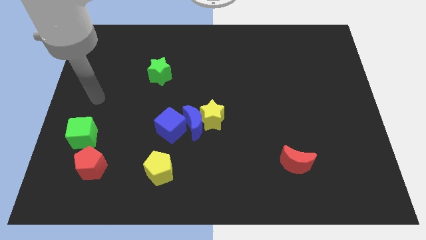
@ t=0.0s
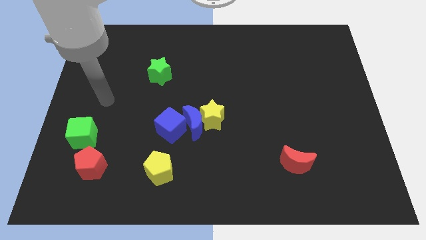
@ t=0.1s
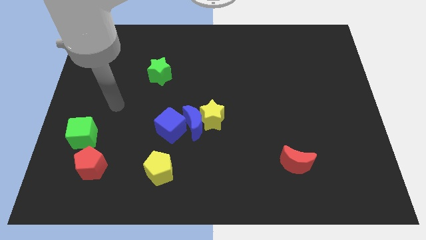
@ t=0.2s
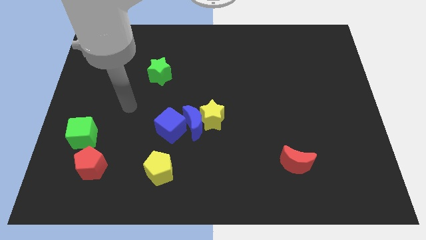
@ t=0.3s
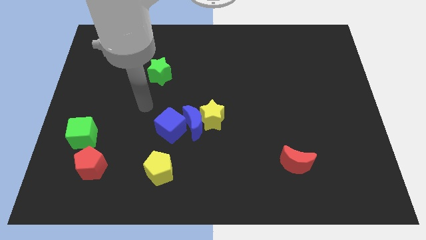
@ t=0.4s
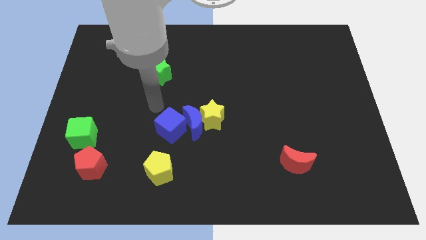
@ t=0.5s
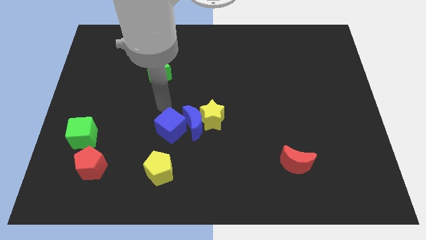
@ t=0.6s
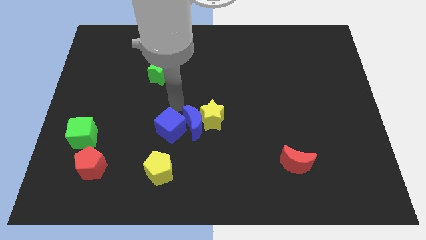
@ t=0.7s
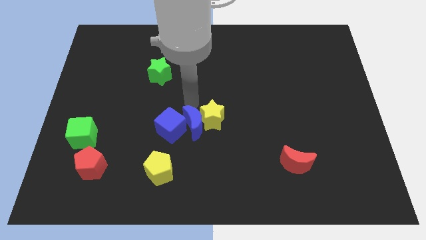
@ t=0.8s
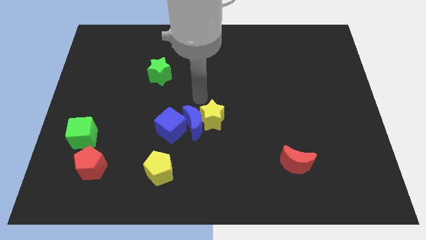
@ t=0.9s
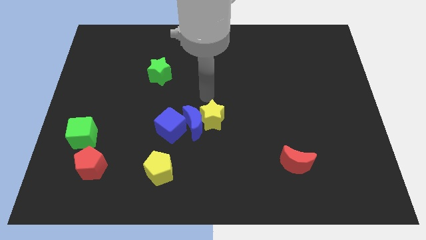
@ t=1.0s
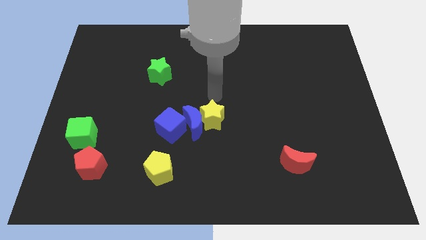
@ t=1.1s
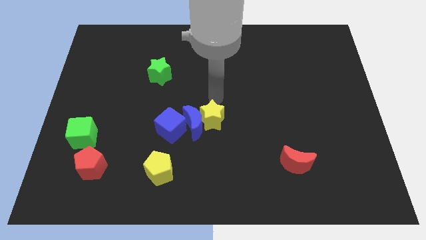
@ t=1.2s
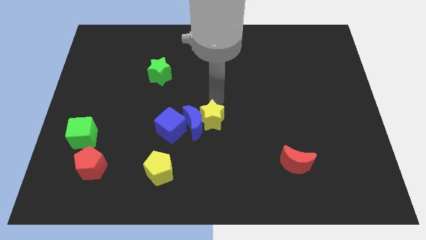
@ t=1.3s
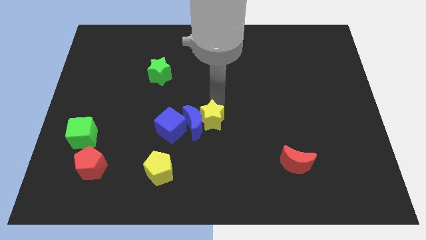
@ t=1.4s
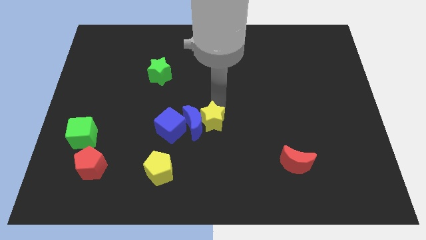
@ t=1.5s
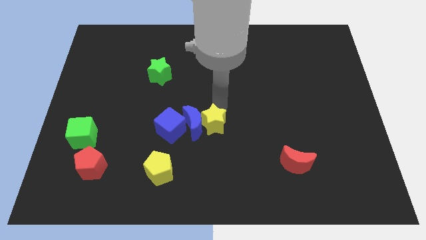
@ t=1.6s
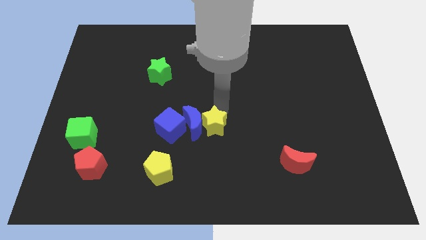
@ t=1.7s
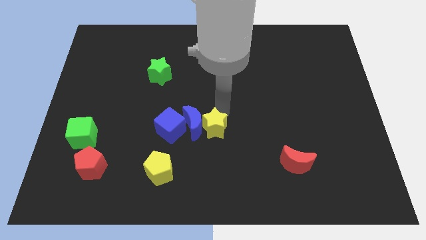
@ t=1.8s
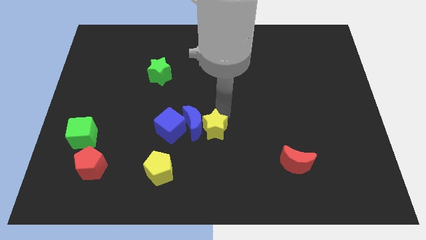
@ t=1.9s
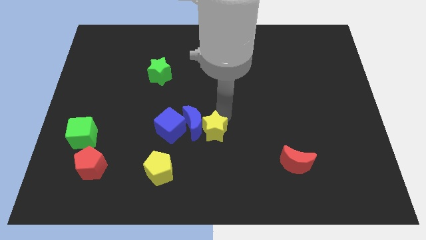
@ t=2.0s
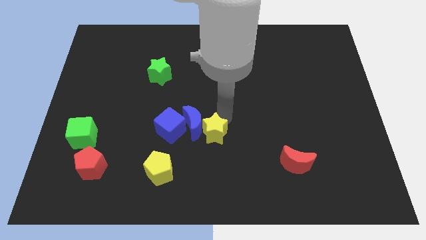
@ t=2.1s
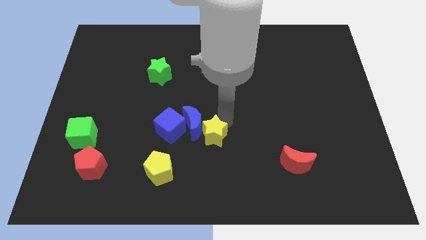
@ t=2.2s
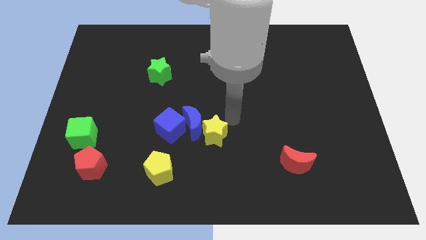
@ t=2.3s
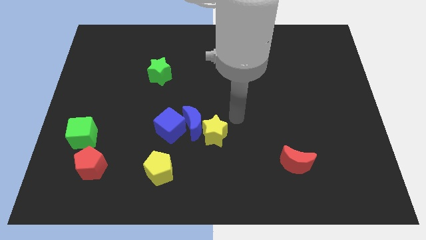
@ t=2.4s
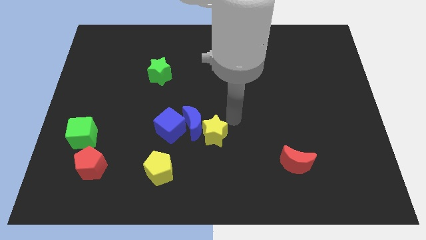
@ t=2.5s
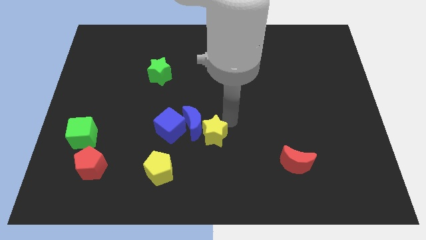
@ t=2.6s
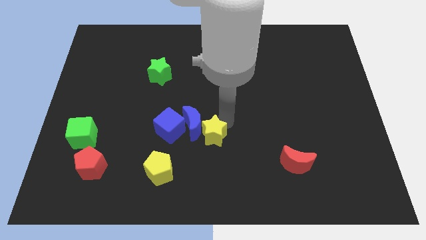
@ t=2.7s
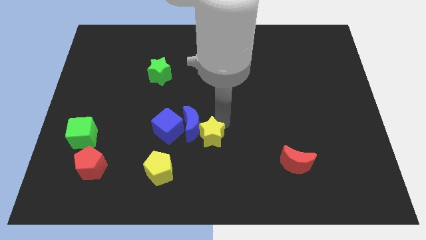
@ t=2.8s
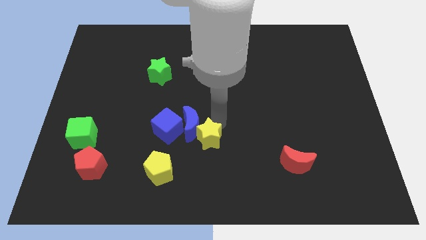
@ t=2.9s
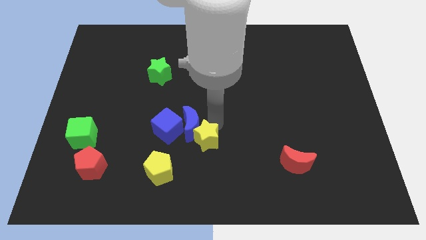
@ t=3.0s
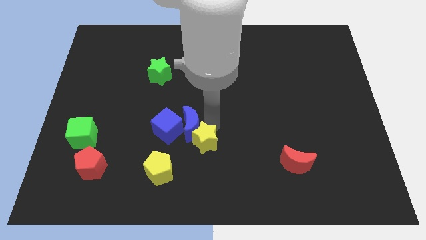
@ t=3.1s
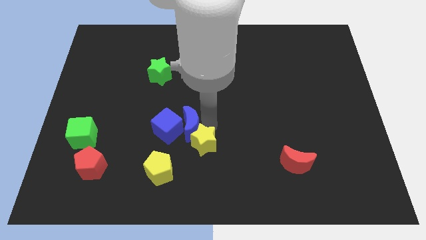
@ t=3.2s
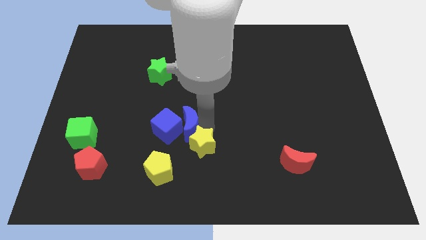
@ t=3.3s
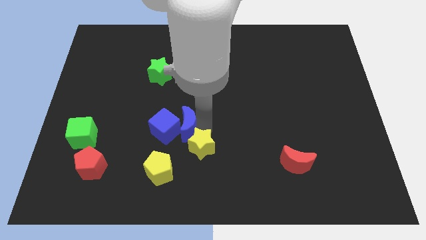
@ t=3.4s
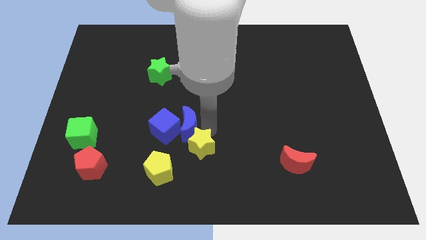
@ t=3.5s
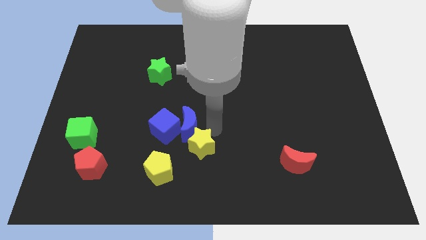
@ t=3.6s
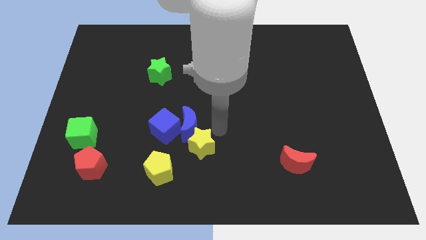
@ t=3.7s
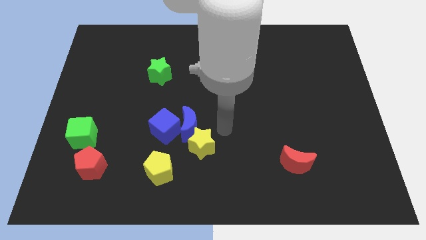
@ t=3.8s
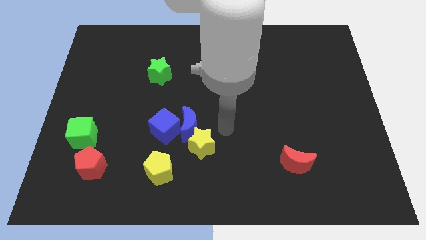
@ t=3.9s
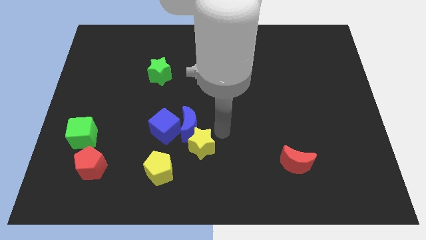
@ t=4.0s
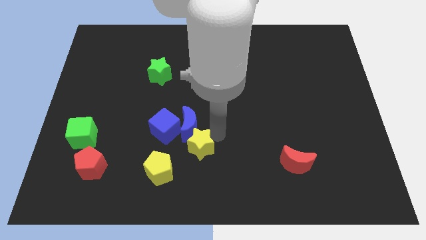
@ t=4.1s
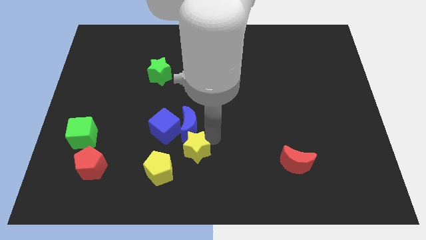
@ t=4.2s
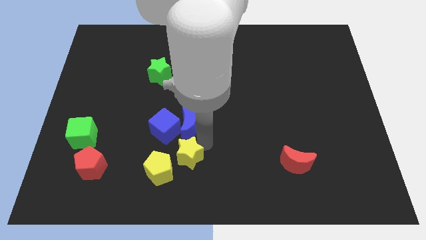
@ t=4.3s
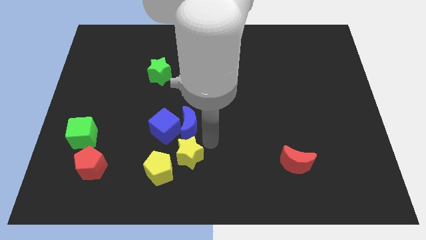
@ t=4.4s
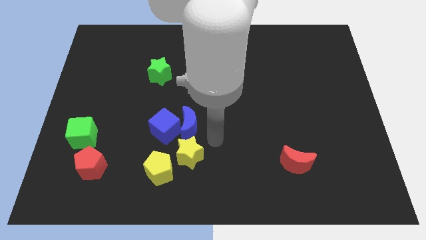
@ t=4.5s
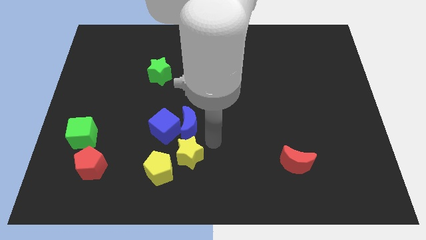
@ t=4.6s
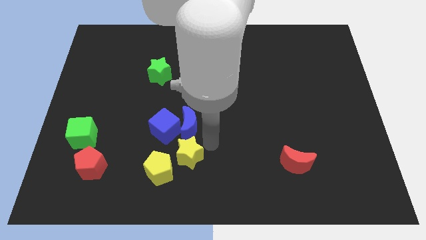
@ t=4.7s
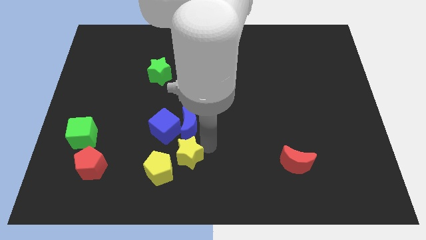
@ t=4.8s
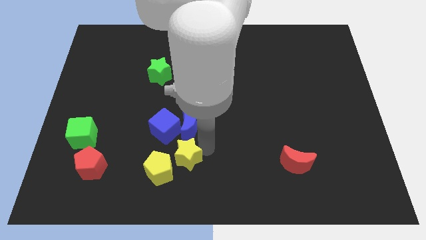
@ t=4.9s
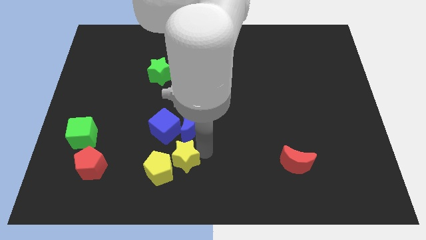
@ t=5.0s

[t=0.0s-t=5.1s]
slide the yellow star close to the yellow pentagon

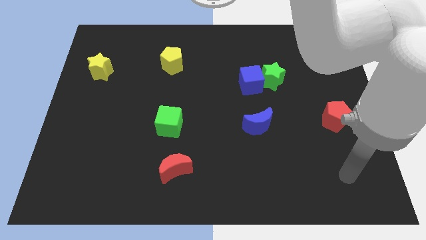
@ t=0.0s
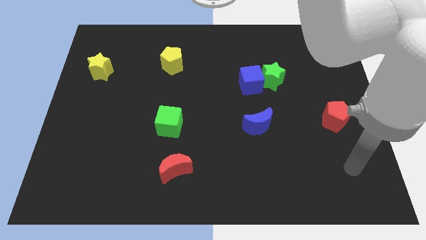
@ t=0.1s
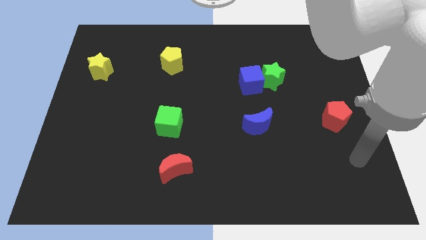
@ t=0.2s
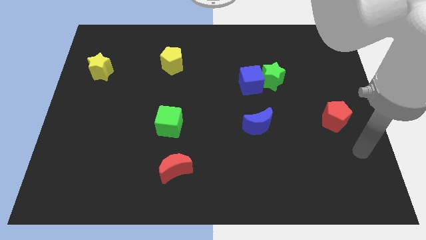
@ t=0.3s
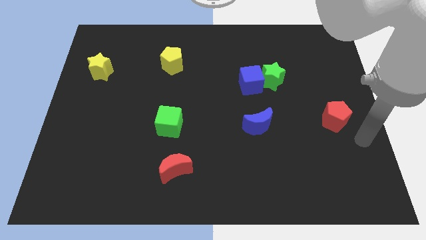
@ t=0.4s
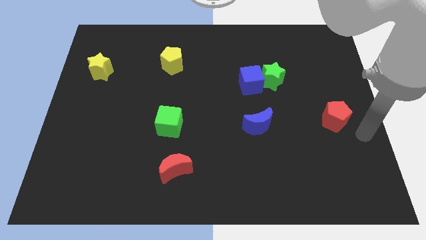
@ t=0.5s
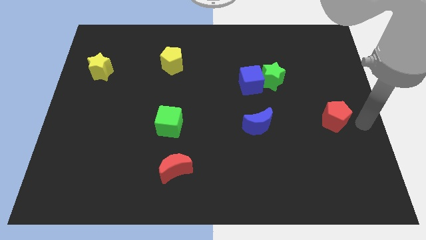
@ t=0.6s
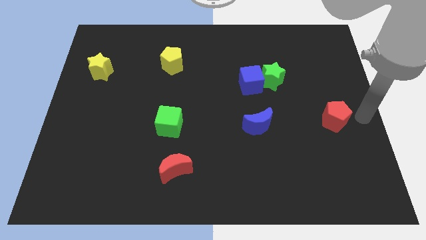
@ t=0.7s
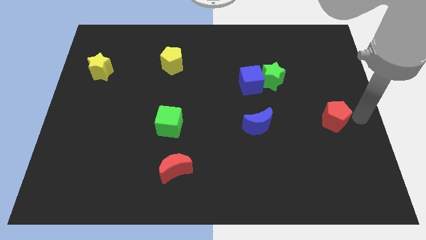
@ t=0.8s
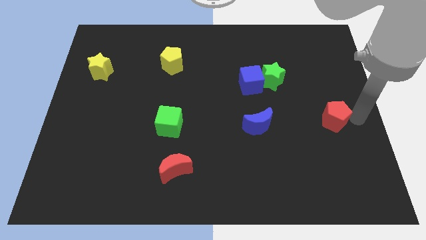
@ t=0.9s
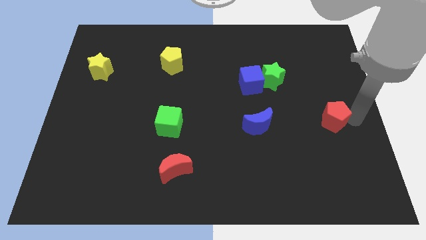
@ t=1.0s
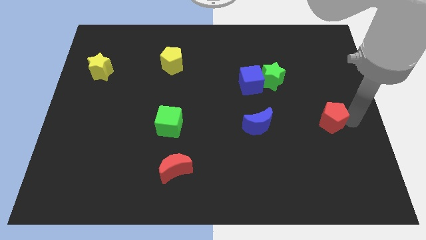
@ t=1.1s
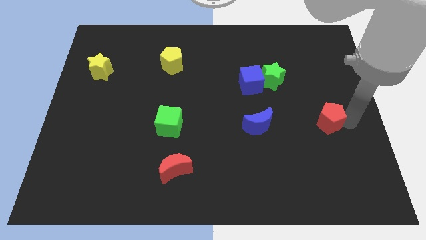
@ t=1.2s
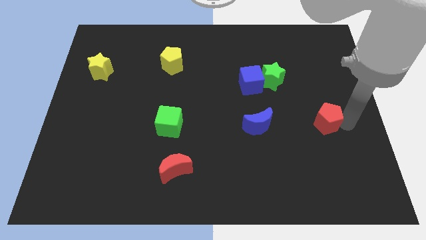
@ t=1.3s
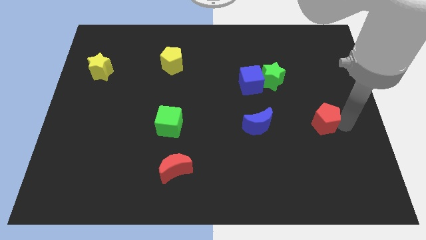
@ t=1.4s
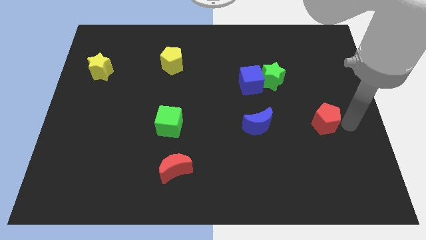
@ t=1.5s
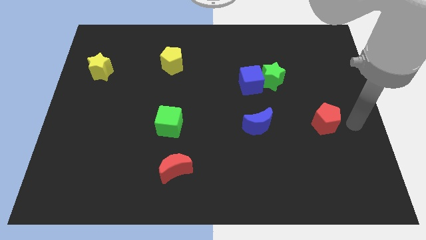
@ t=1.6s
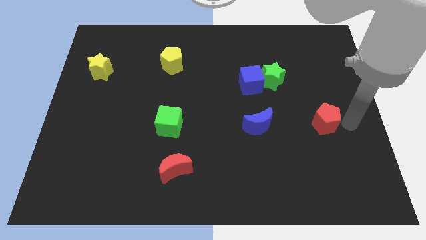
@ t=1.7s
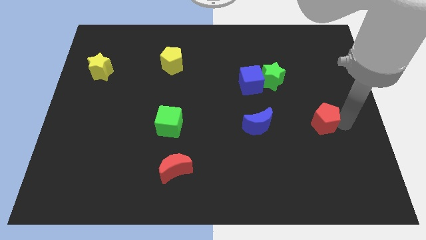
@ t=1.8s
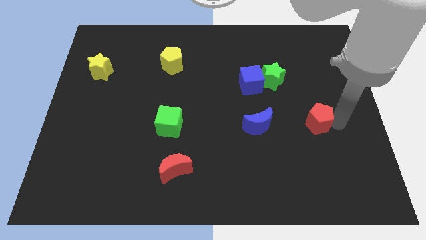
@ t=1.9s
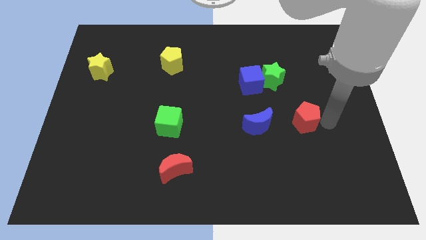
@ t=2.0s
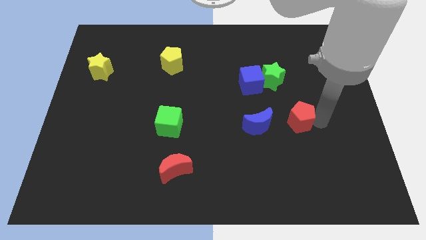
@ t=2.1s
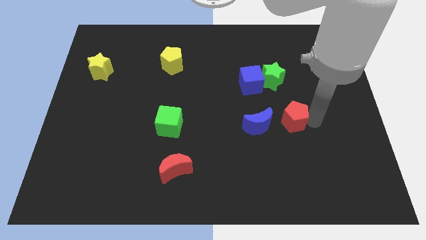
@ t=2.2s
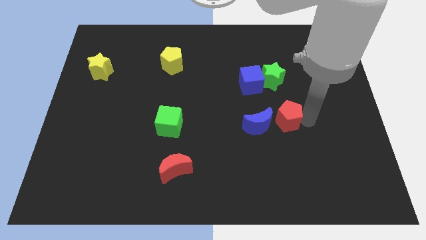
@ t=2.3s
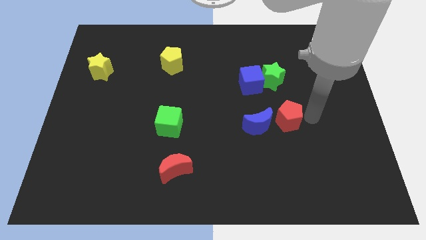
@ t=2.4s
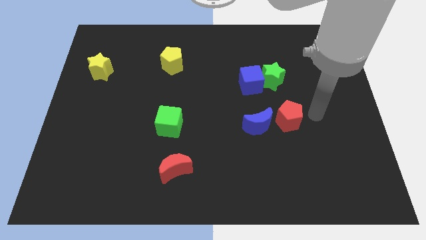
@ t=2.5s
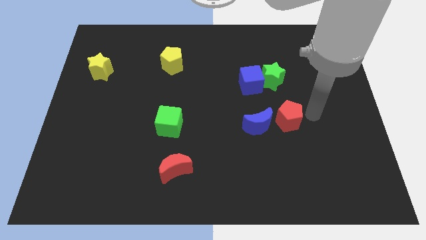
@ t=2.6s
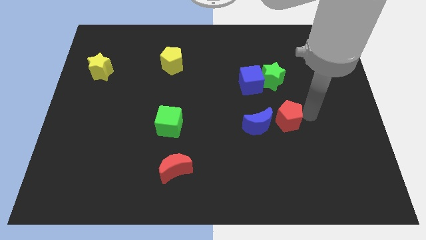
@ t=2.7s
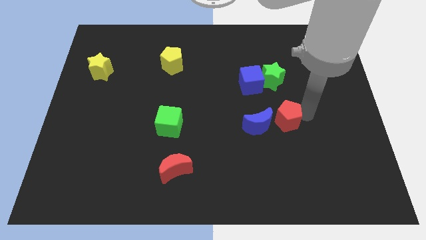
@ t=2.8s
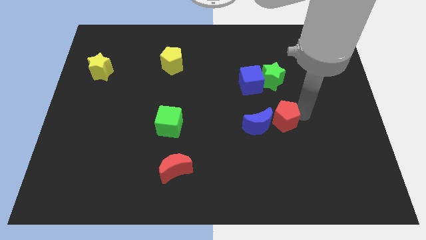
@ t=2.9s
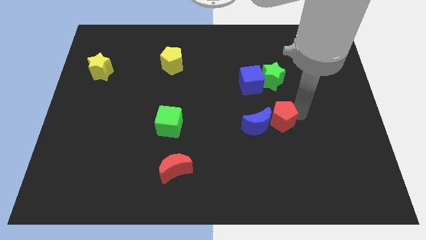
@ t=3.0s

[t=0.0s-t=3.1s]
move the red pentagon towards the blue moon
